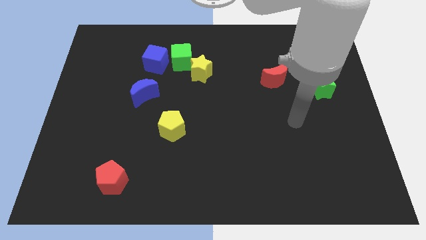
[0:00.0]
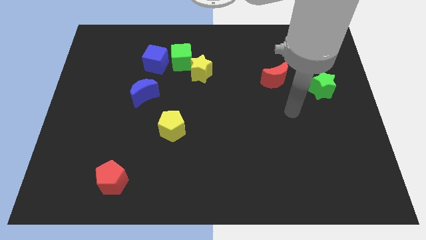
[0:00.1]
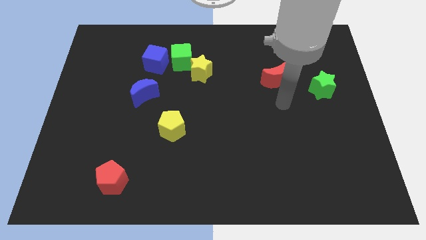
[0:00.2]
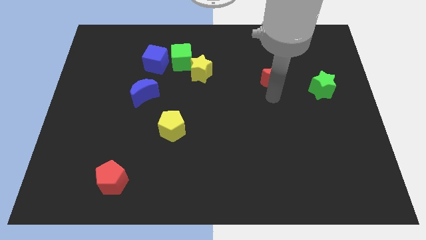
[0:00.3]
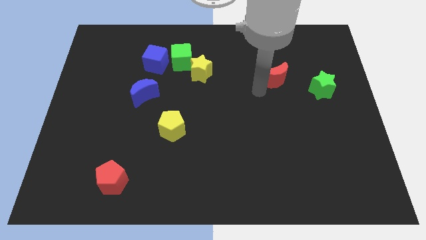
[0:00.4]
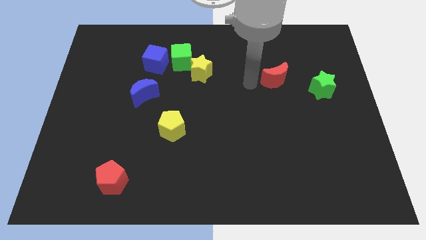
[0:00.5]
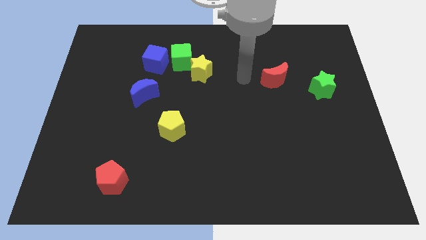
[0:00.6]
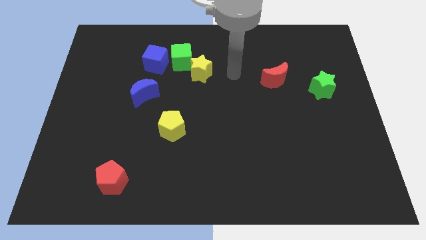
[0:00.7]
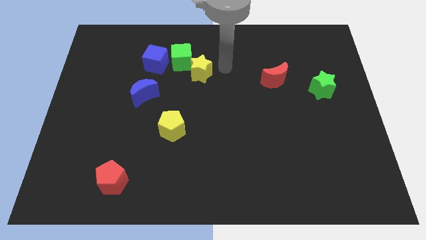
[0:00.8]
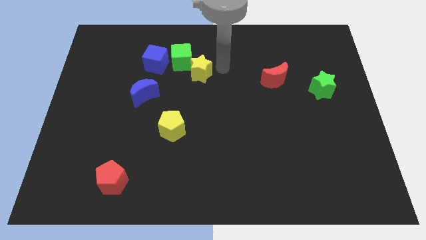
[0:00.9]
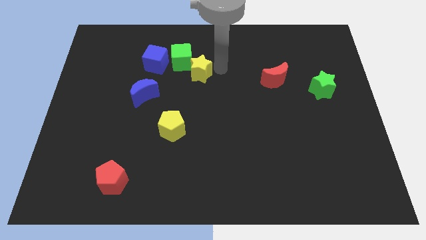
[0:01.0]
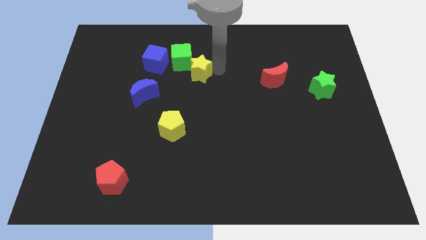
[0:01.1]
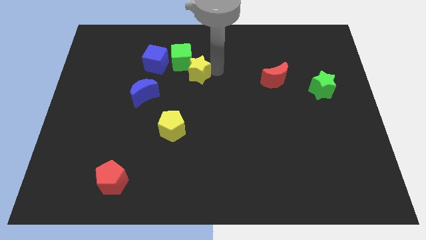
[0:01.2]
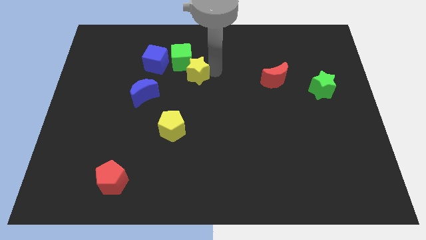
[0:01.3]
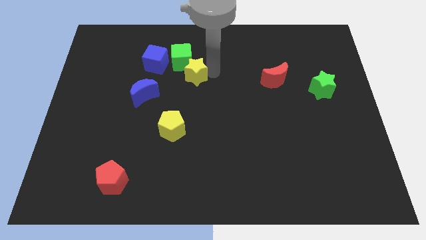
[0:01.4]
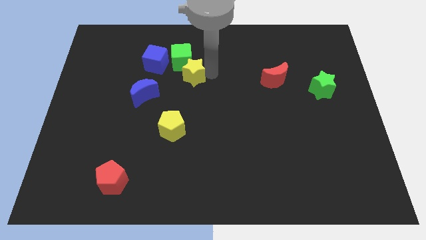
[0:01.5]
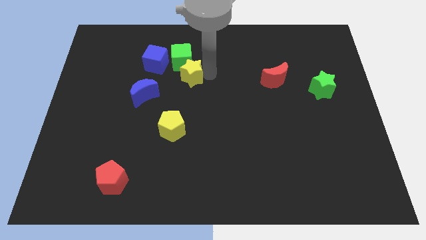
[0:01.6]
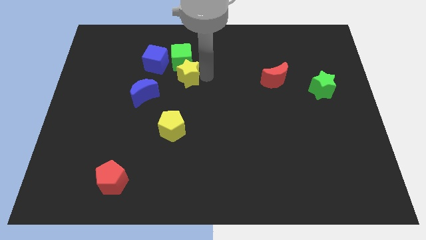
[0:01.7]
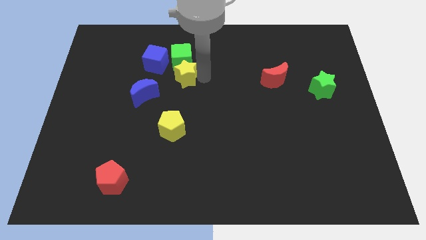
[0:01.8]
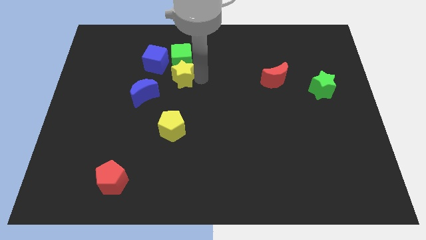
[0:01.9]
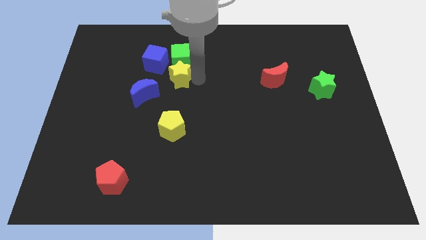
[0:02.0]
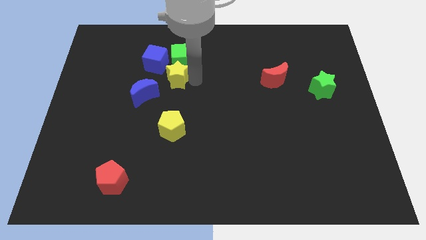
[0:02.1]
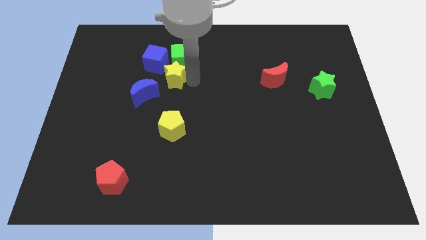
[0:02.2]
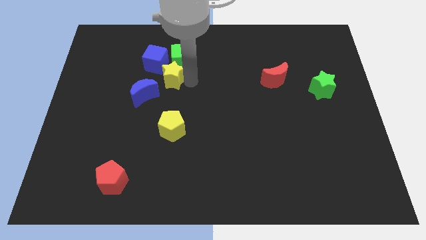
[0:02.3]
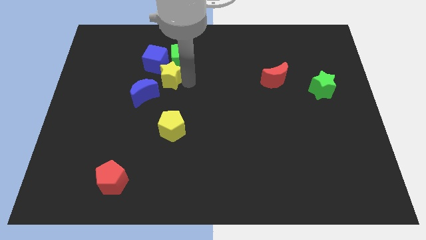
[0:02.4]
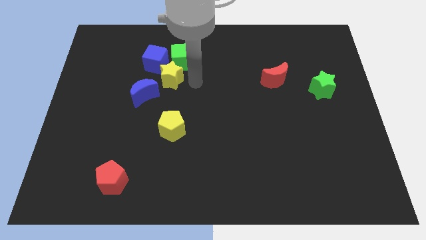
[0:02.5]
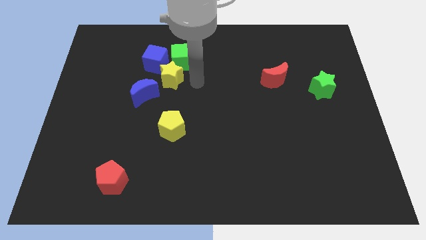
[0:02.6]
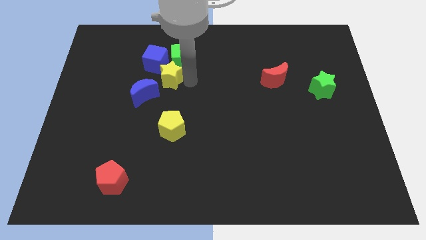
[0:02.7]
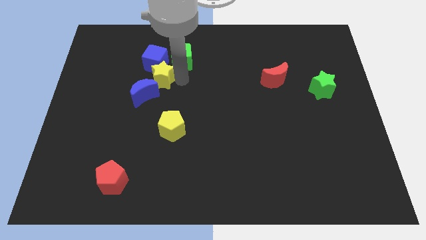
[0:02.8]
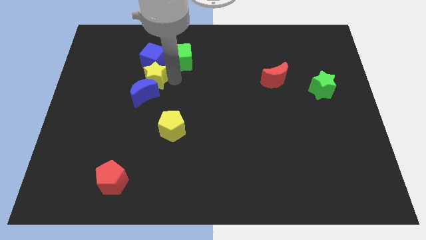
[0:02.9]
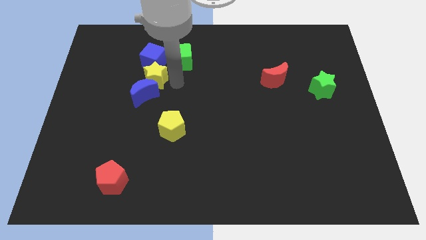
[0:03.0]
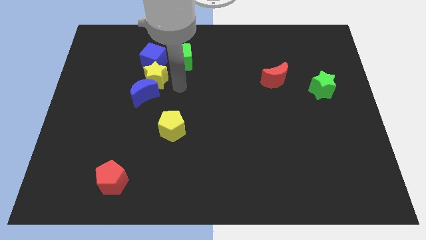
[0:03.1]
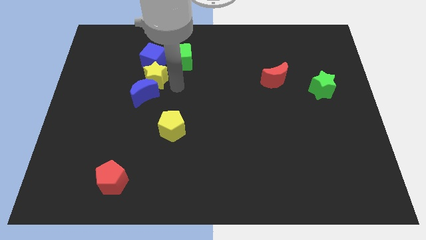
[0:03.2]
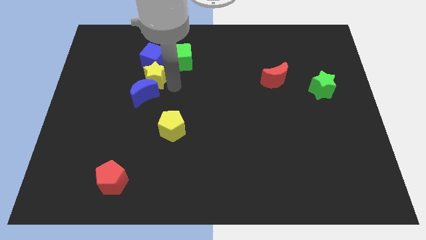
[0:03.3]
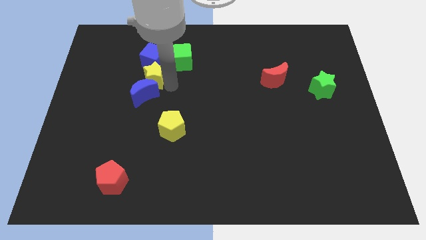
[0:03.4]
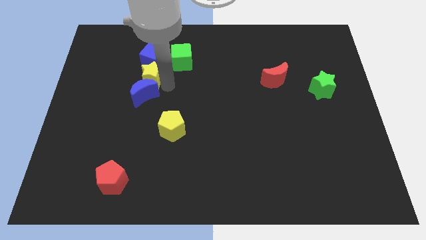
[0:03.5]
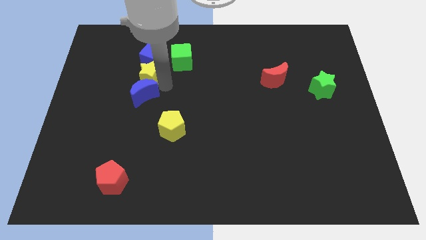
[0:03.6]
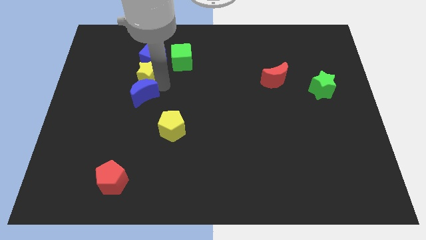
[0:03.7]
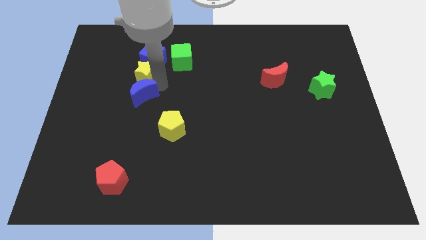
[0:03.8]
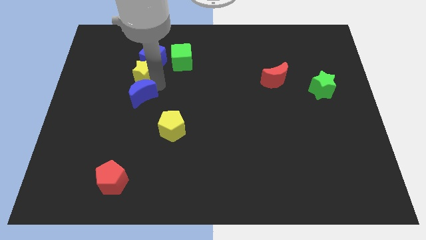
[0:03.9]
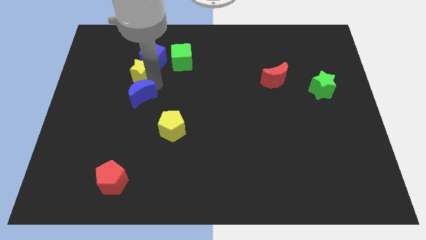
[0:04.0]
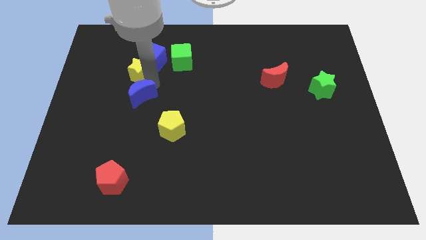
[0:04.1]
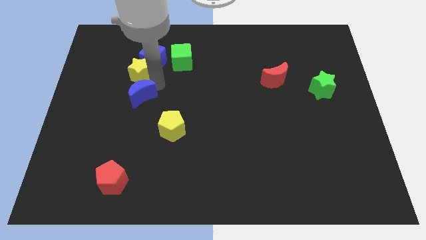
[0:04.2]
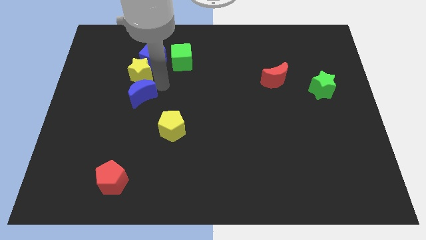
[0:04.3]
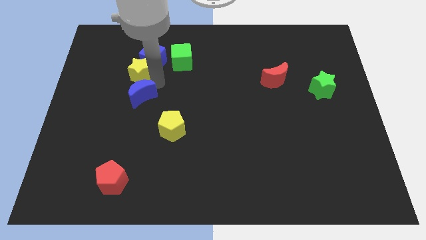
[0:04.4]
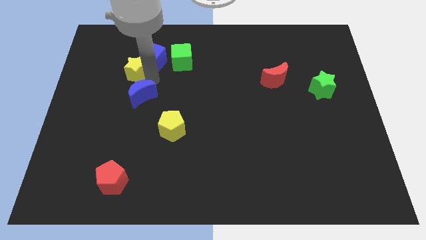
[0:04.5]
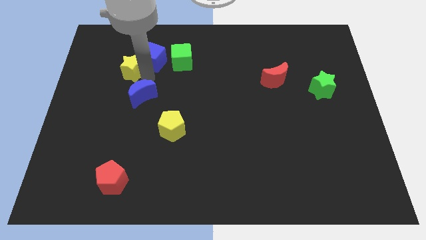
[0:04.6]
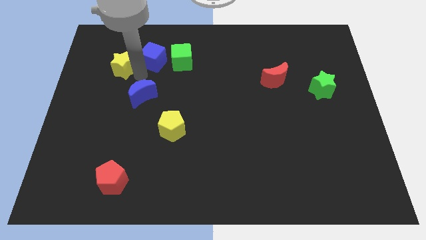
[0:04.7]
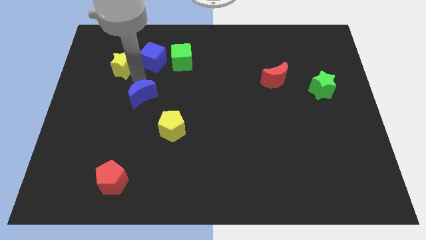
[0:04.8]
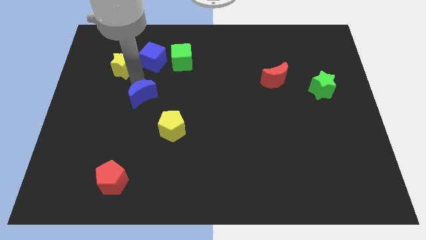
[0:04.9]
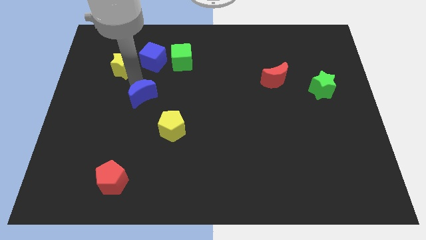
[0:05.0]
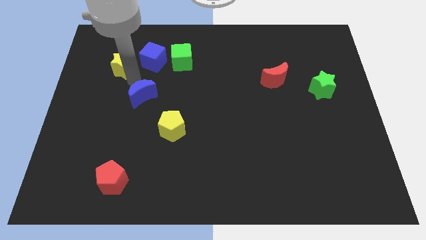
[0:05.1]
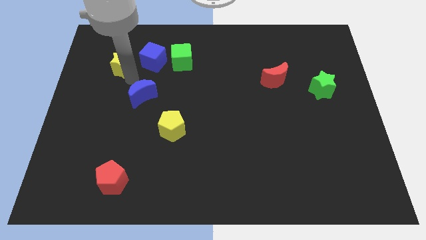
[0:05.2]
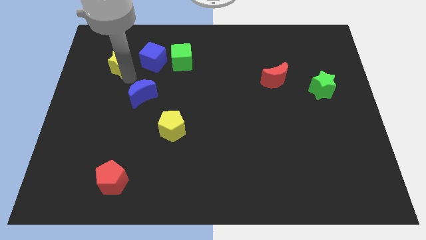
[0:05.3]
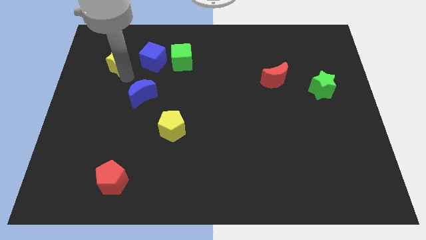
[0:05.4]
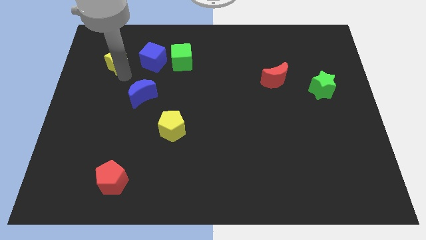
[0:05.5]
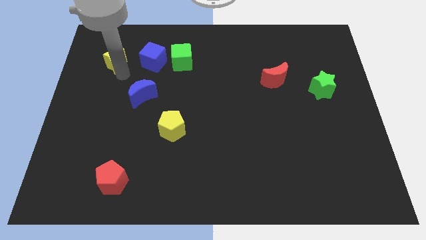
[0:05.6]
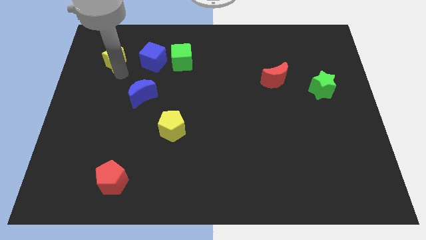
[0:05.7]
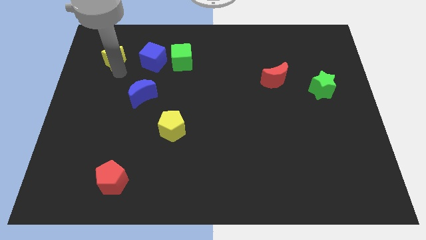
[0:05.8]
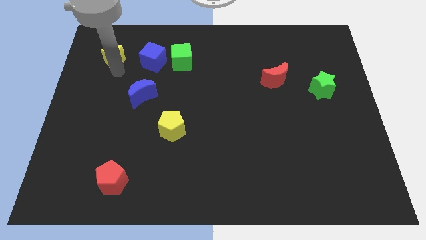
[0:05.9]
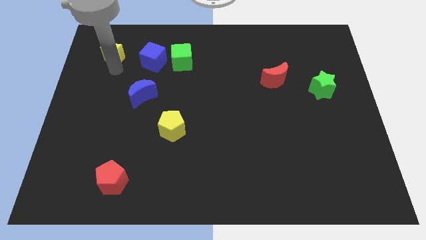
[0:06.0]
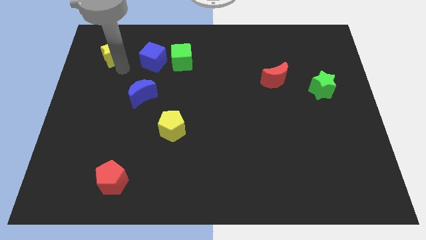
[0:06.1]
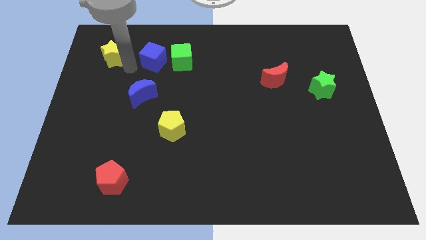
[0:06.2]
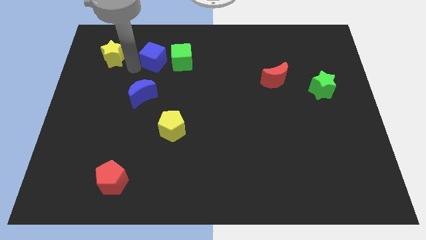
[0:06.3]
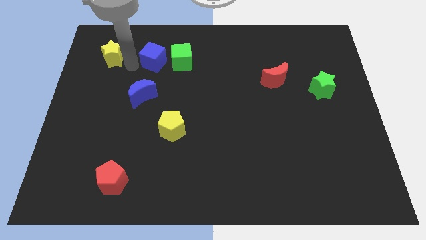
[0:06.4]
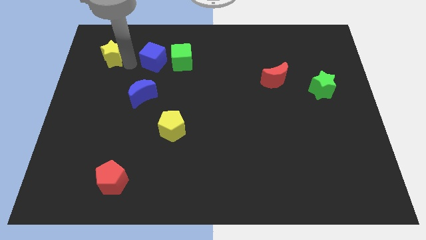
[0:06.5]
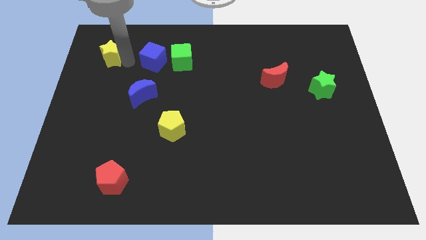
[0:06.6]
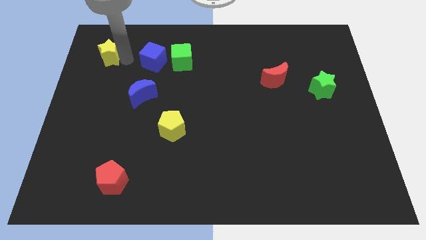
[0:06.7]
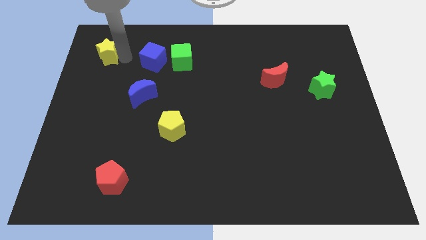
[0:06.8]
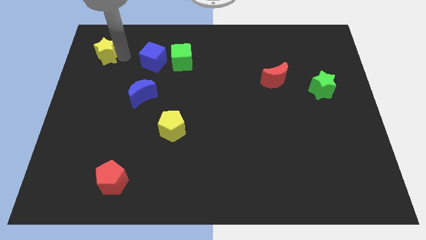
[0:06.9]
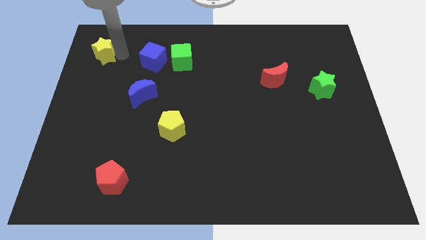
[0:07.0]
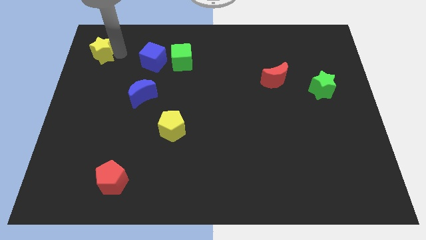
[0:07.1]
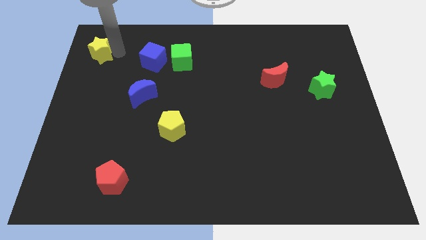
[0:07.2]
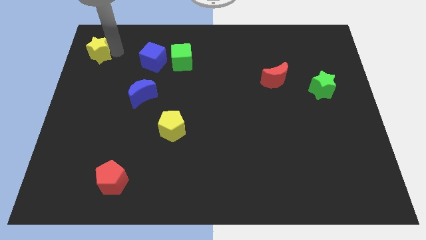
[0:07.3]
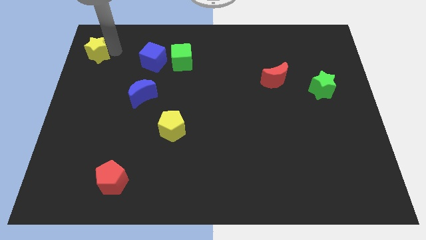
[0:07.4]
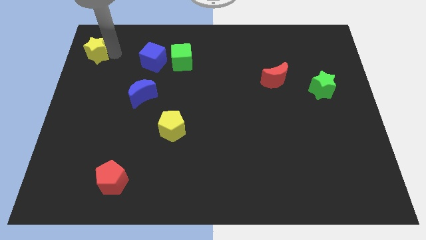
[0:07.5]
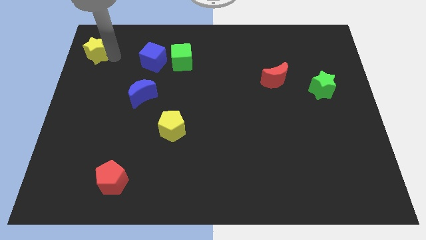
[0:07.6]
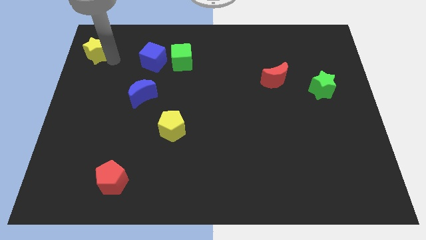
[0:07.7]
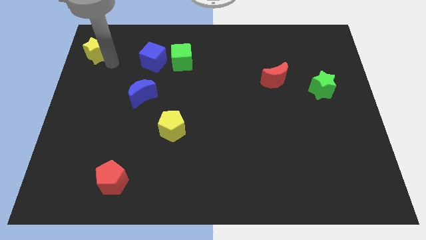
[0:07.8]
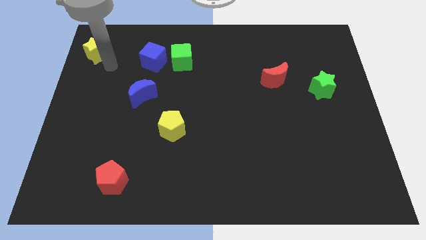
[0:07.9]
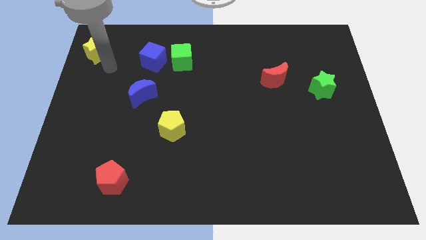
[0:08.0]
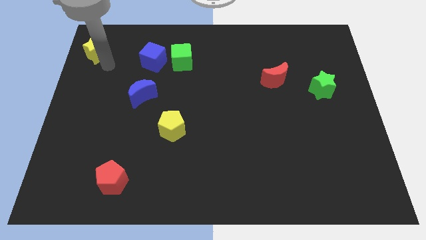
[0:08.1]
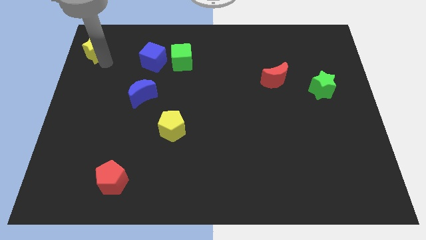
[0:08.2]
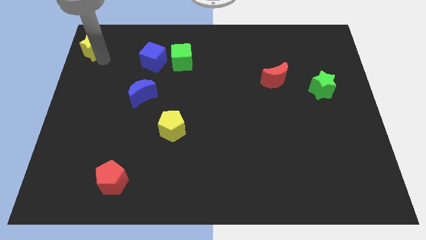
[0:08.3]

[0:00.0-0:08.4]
move the yellow star to the upper left corner
